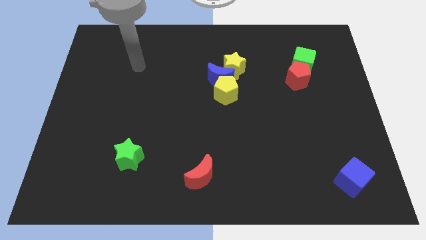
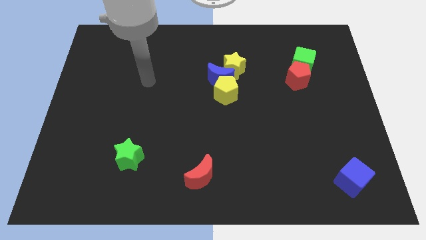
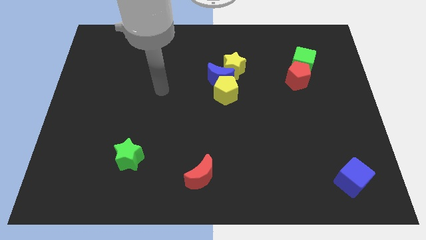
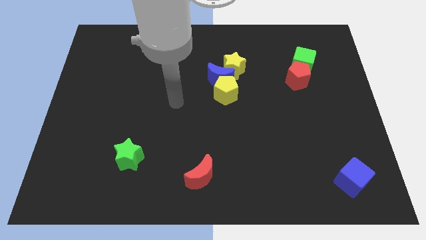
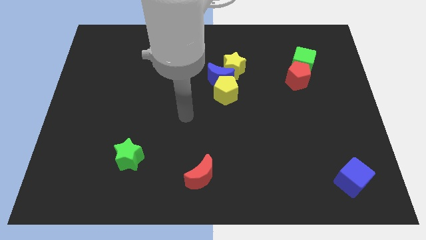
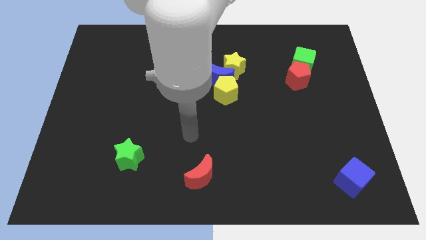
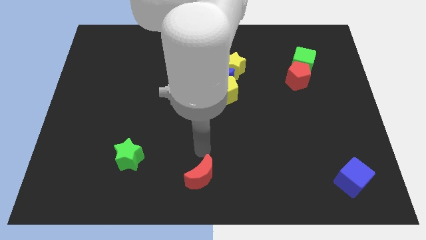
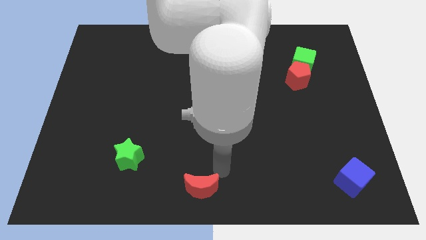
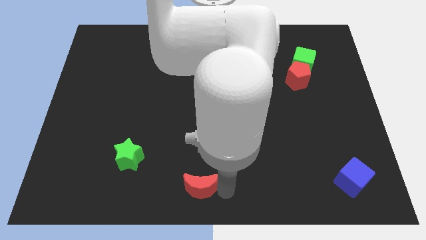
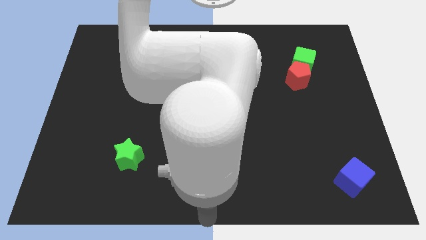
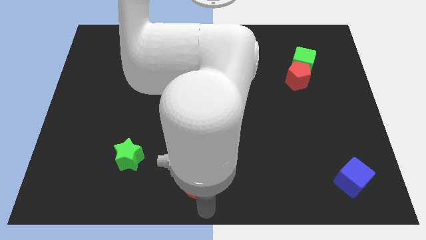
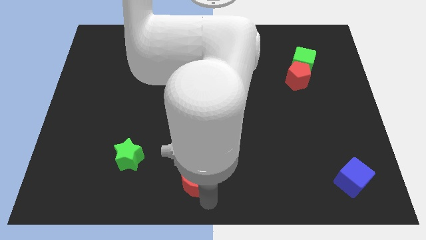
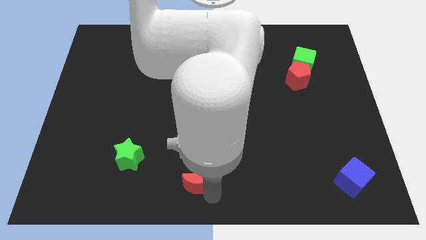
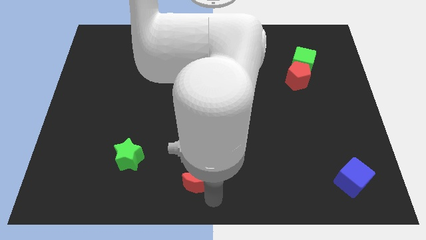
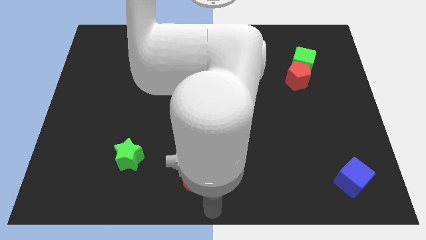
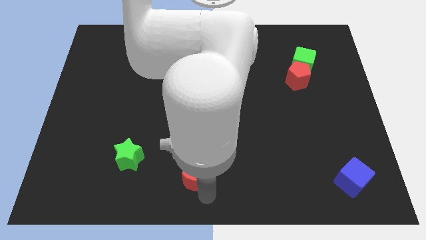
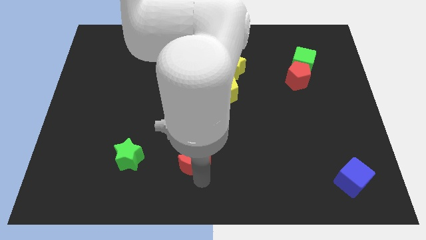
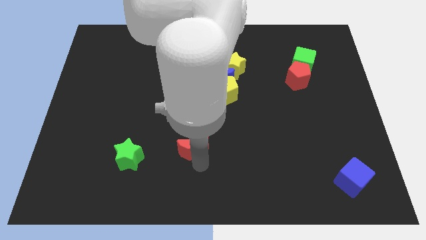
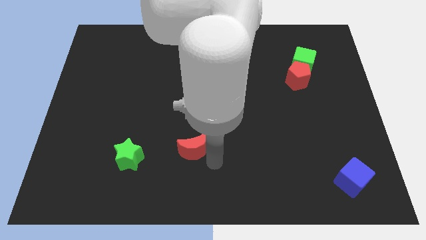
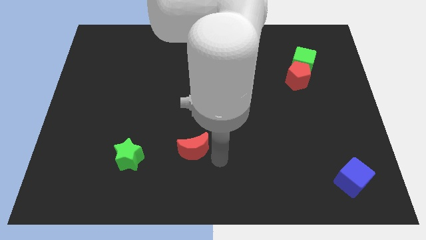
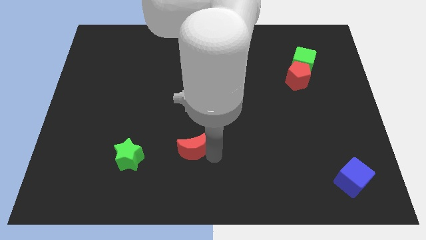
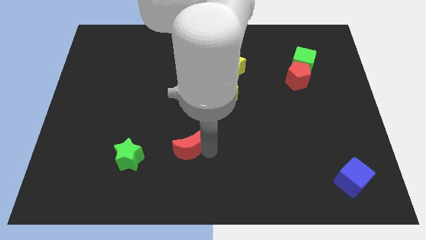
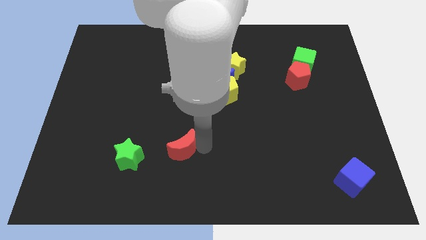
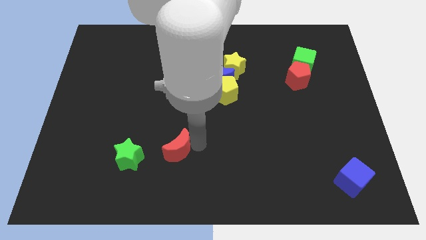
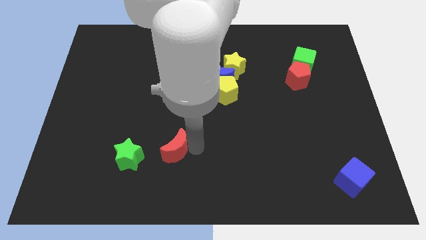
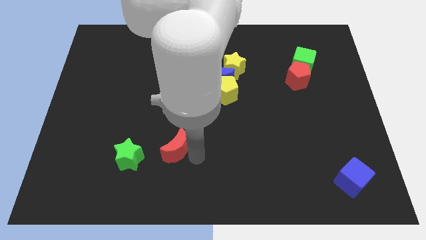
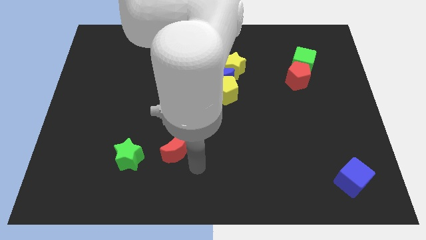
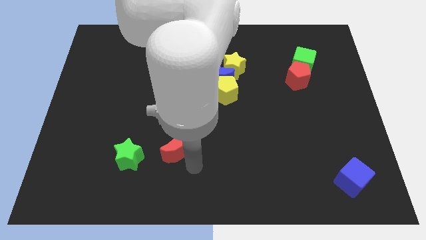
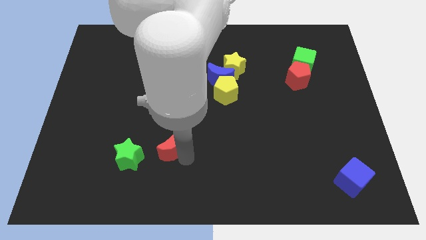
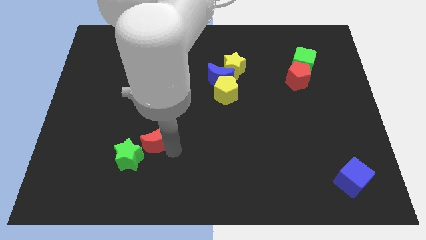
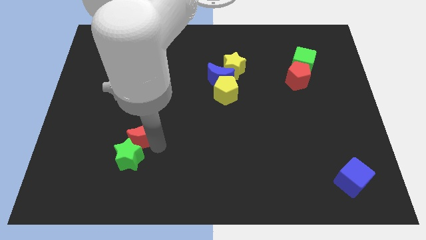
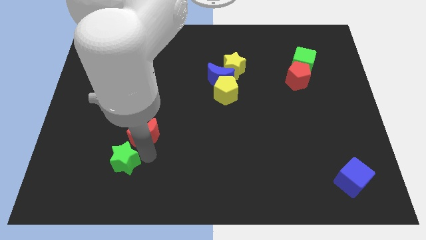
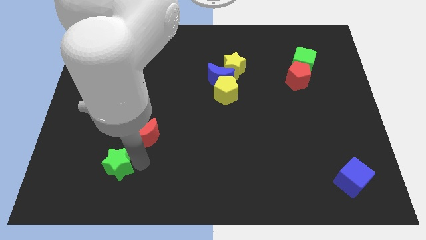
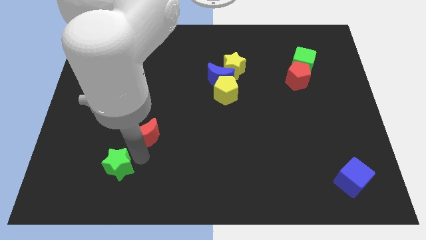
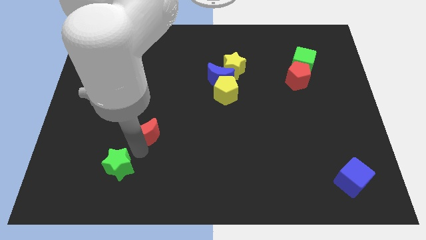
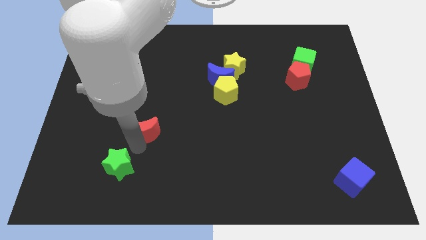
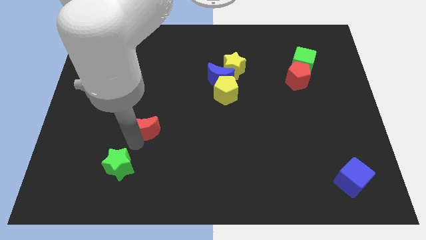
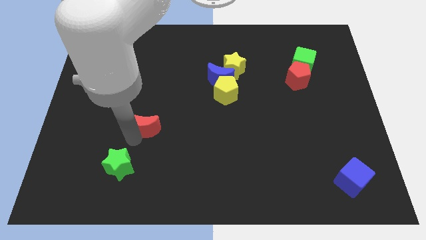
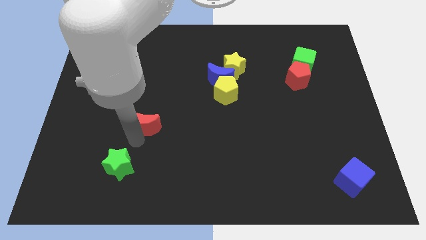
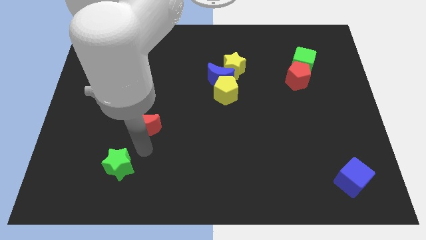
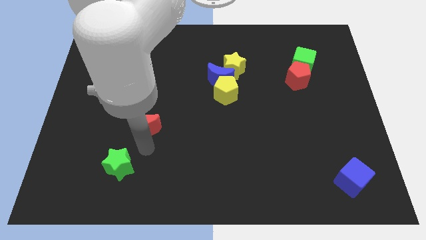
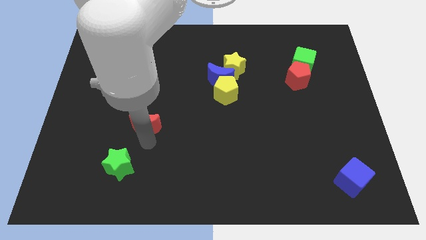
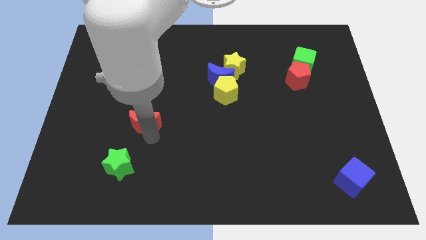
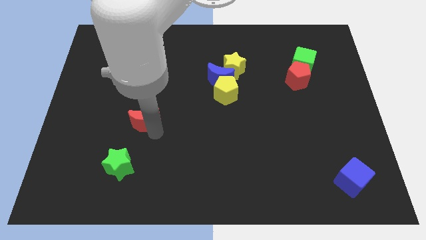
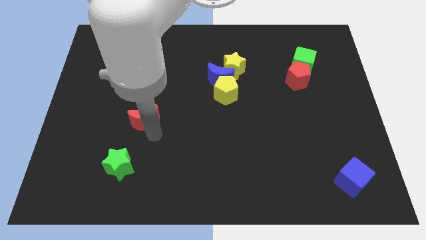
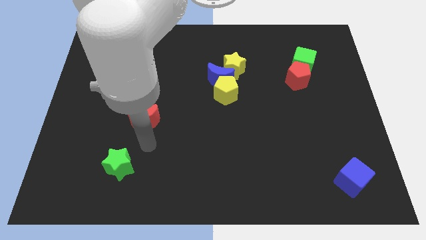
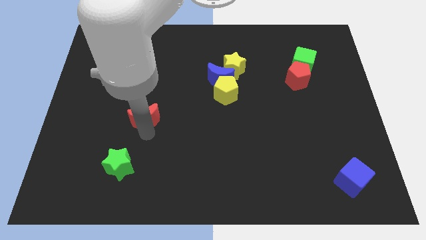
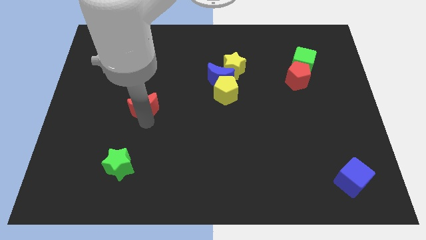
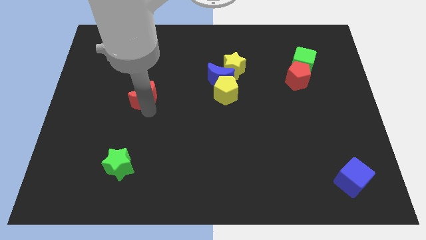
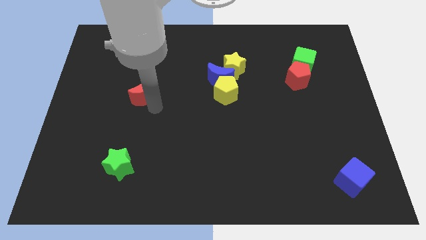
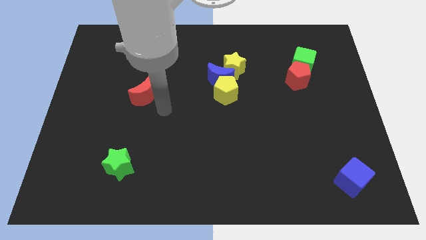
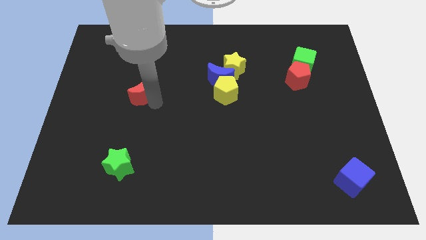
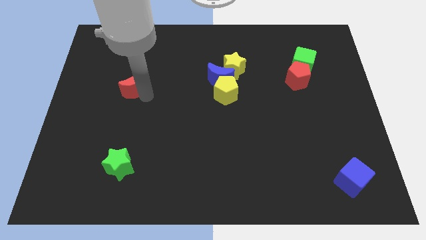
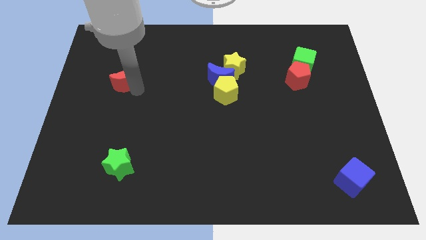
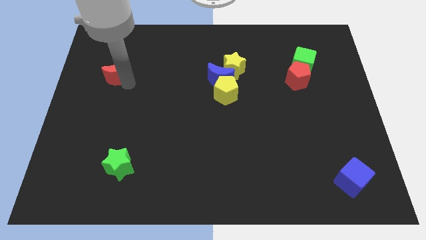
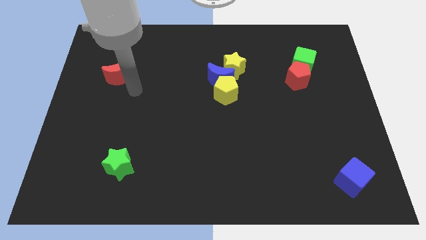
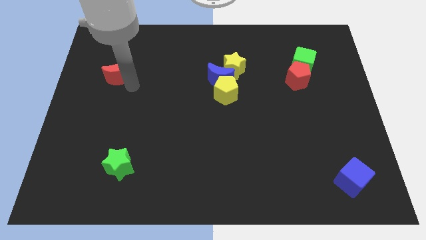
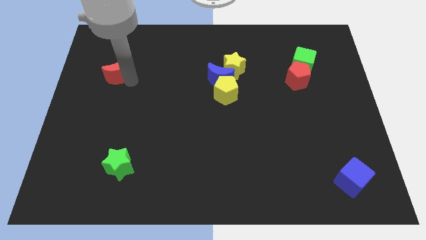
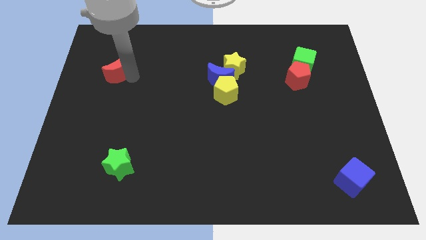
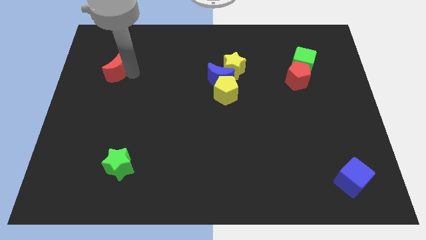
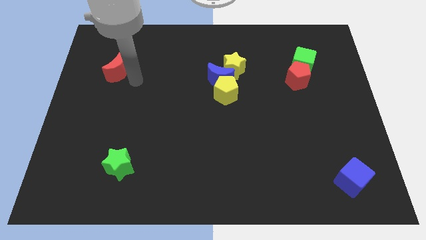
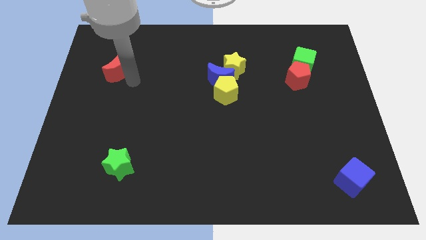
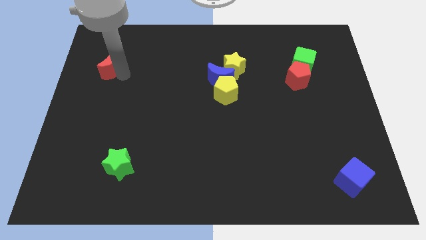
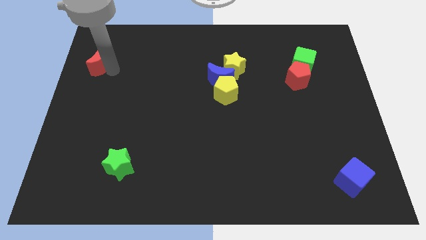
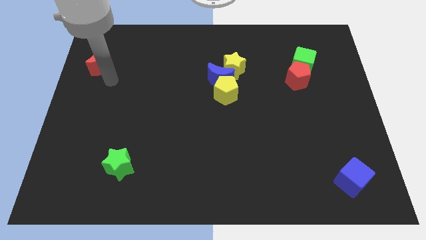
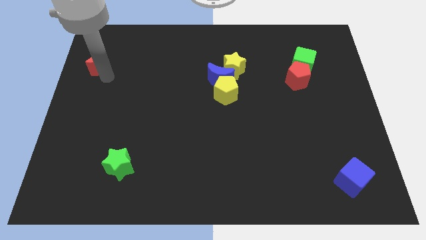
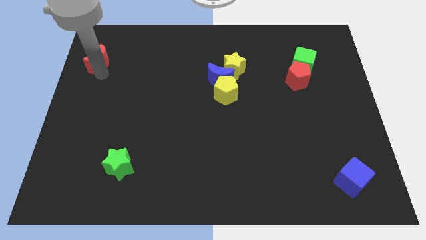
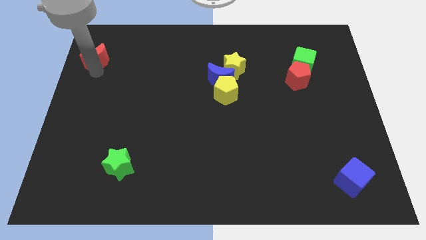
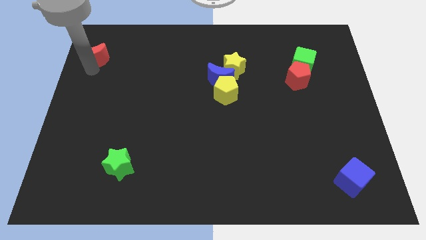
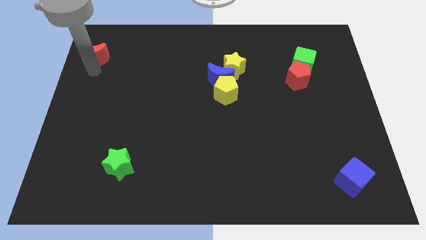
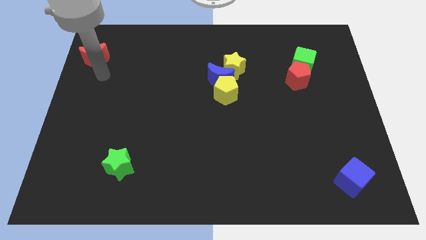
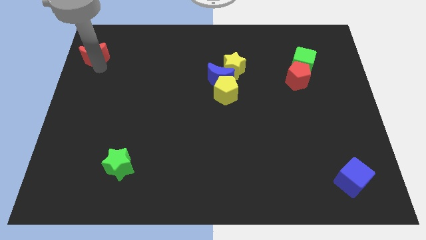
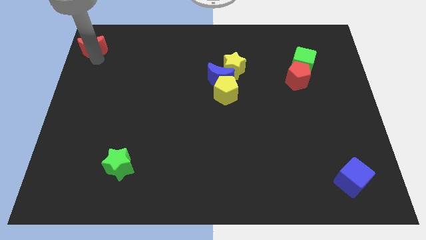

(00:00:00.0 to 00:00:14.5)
move the red moon to the top left corner

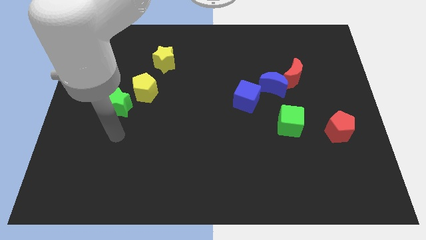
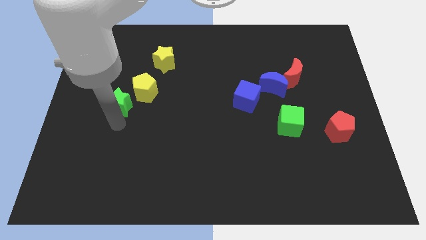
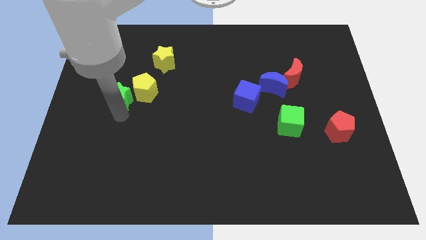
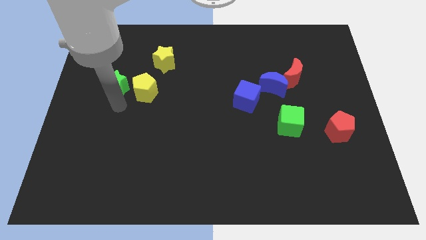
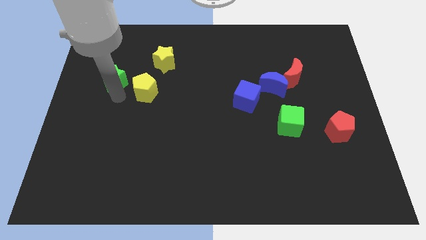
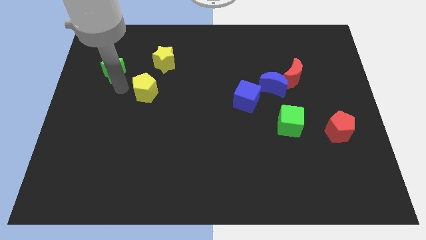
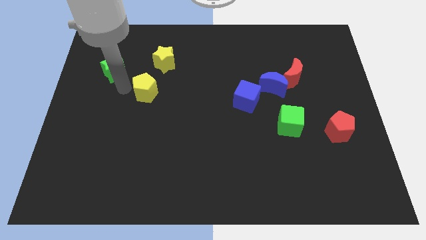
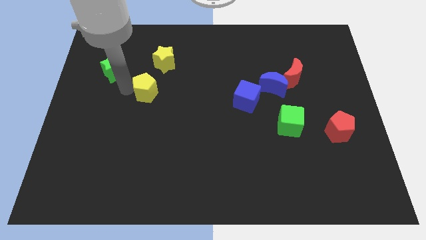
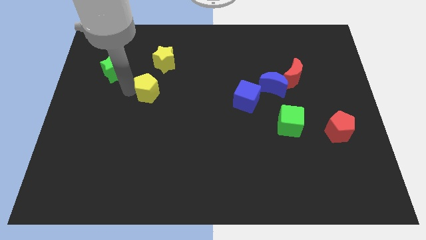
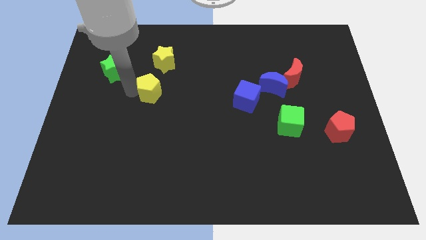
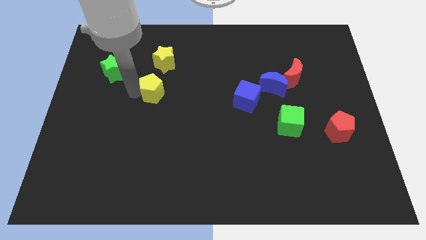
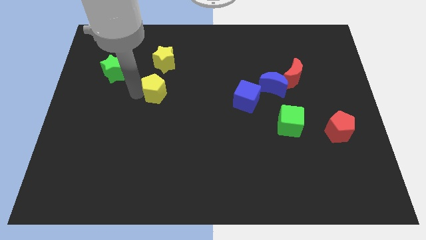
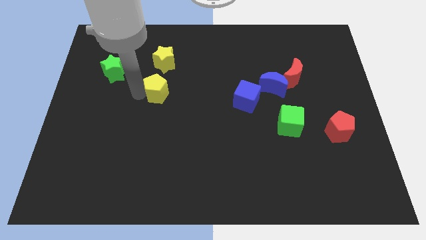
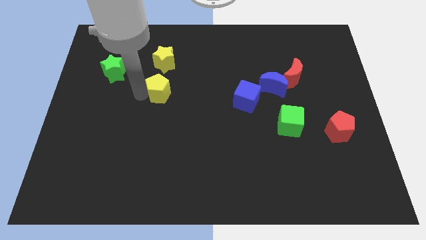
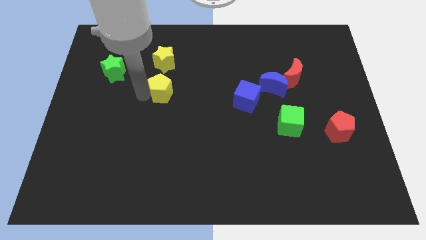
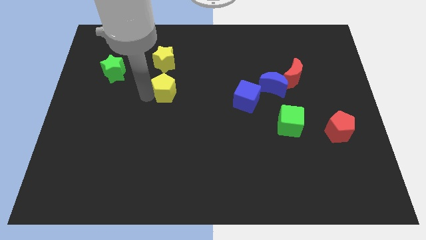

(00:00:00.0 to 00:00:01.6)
push the yellow pentagon to the middle of the board
